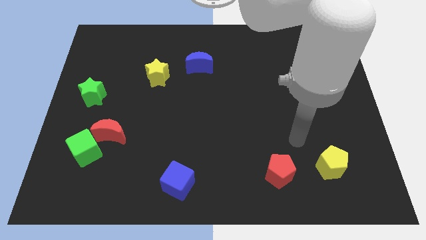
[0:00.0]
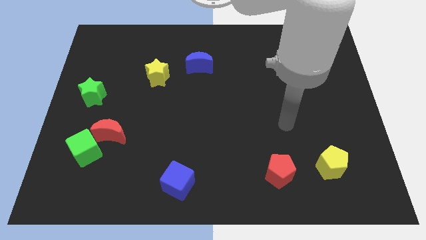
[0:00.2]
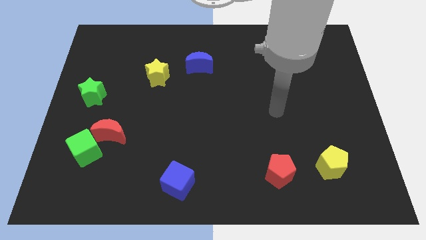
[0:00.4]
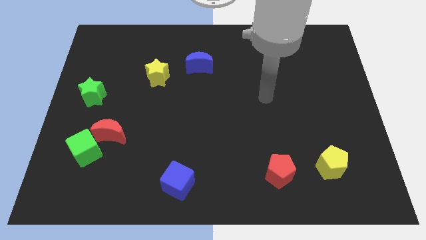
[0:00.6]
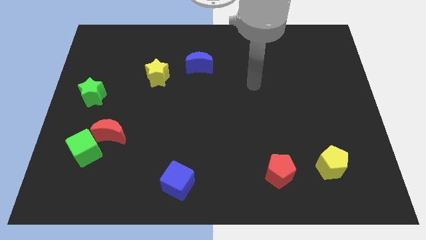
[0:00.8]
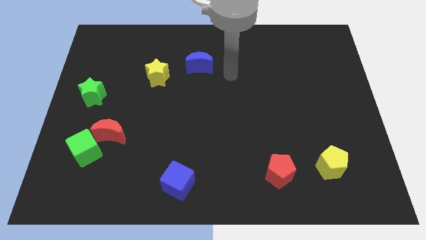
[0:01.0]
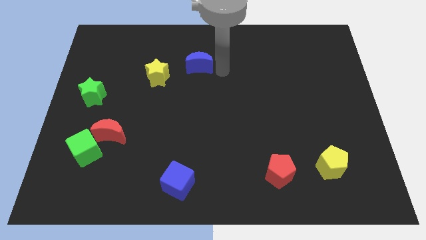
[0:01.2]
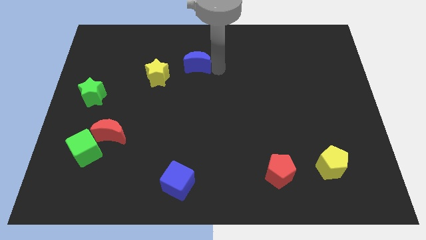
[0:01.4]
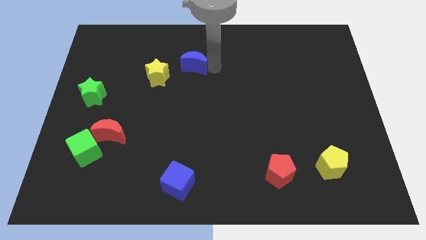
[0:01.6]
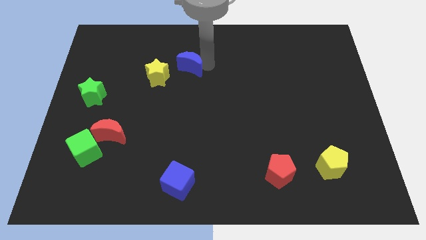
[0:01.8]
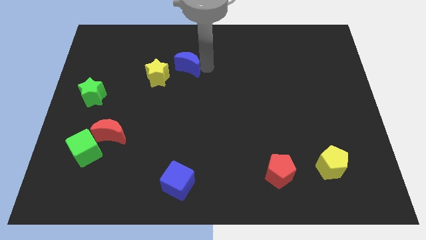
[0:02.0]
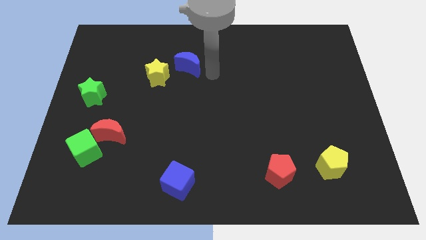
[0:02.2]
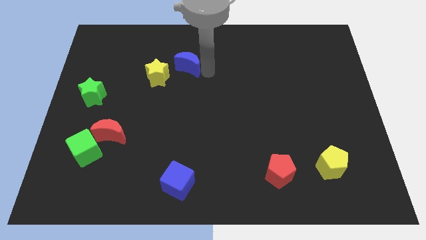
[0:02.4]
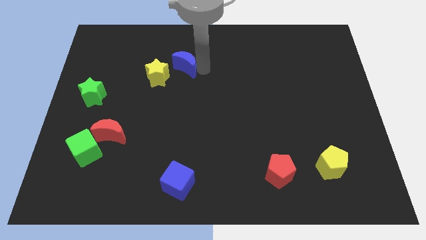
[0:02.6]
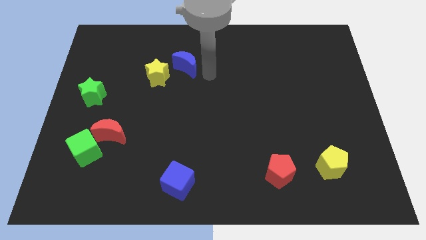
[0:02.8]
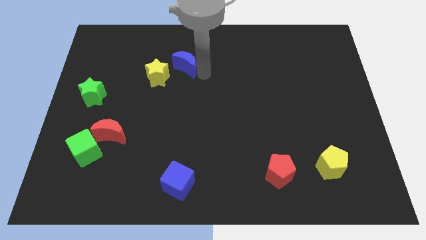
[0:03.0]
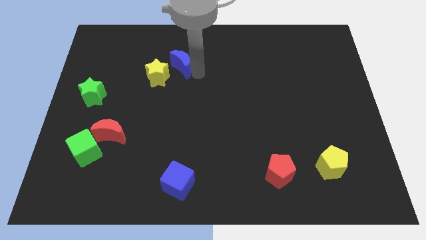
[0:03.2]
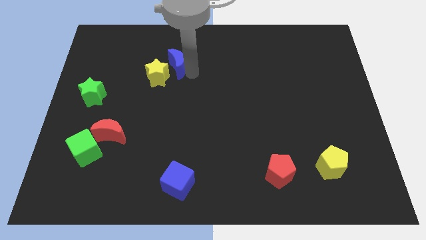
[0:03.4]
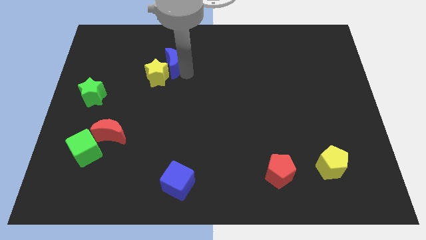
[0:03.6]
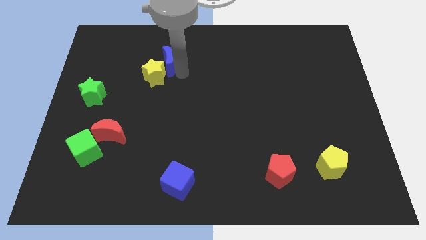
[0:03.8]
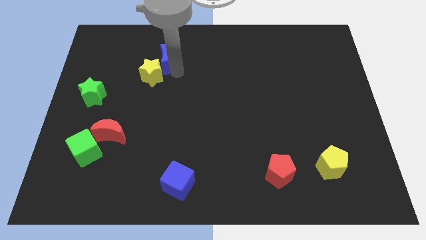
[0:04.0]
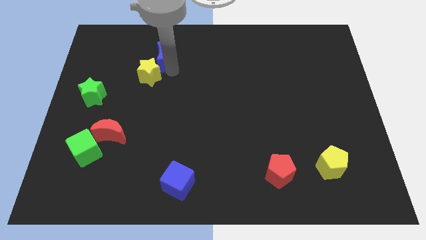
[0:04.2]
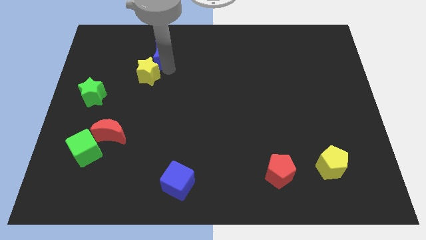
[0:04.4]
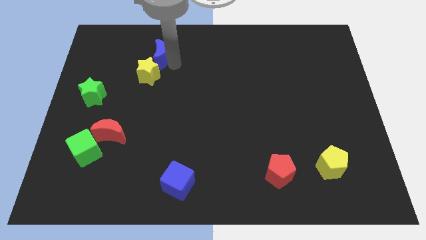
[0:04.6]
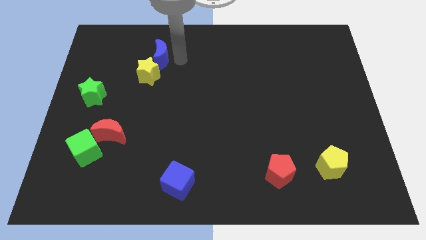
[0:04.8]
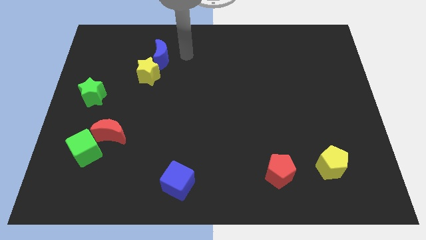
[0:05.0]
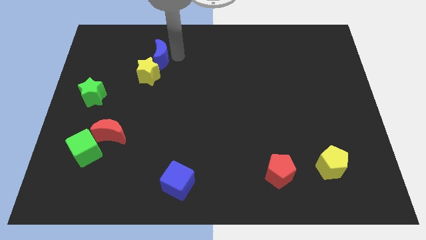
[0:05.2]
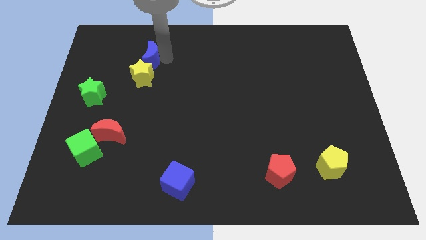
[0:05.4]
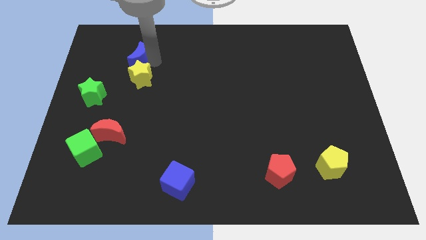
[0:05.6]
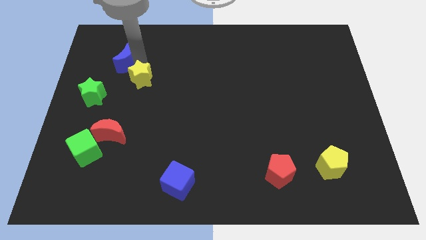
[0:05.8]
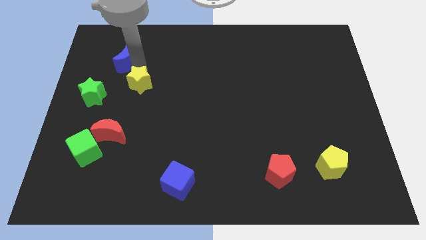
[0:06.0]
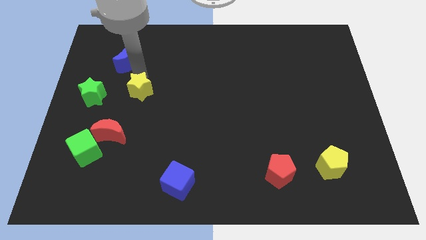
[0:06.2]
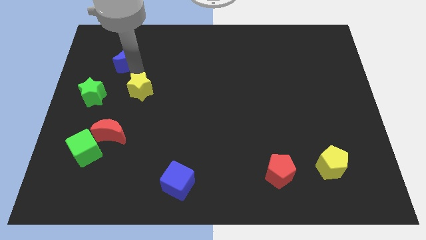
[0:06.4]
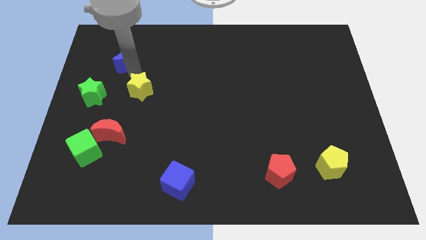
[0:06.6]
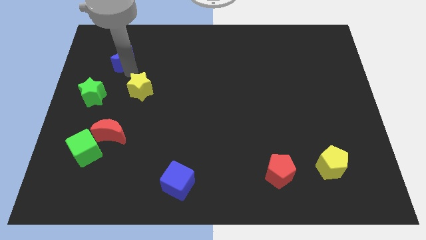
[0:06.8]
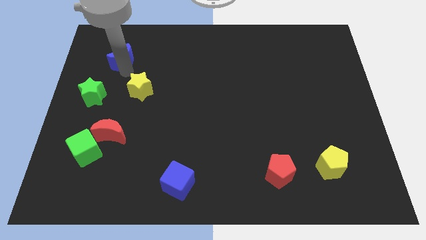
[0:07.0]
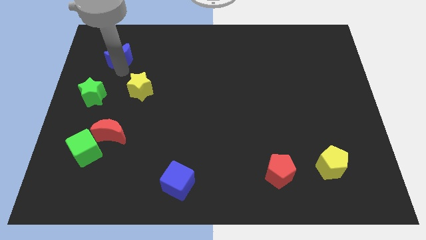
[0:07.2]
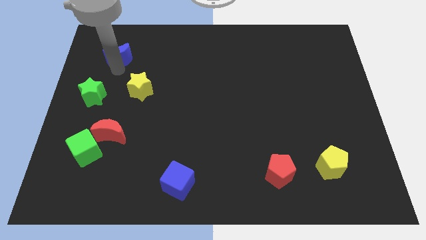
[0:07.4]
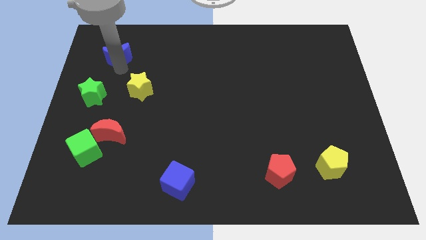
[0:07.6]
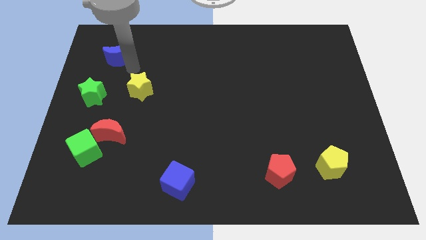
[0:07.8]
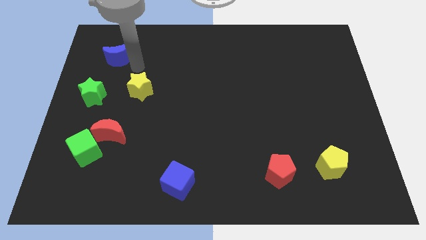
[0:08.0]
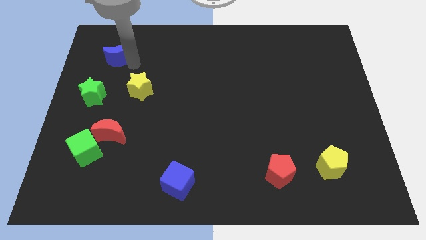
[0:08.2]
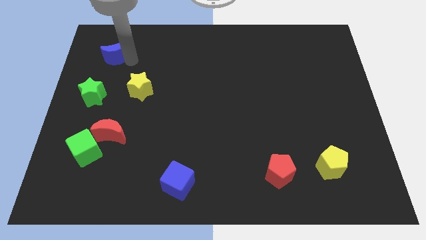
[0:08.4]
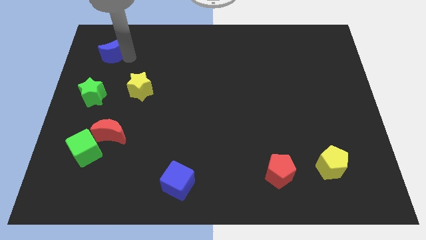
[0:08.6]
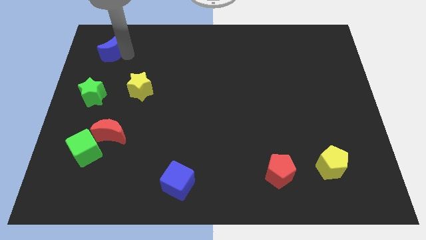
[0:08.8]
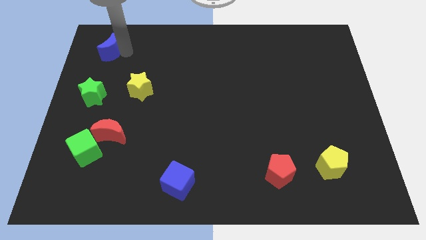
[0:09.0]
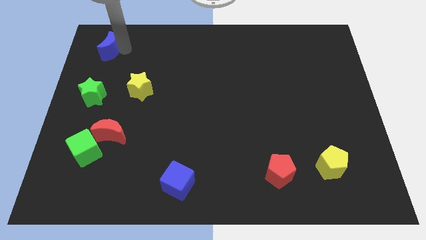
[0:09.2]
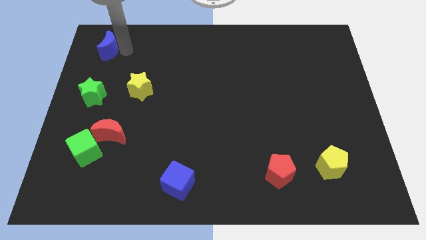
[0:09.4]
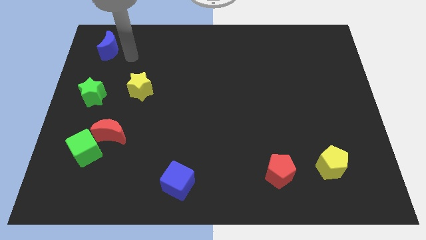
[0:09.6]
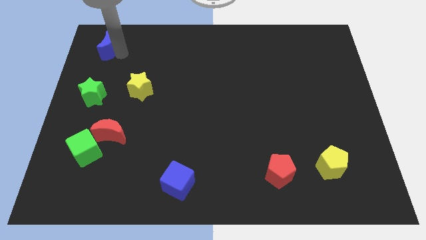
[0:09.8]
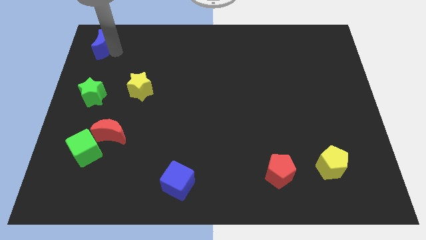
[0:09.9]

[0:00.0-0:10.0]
slide the blue moon to the top left corner
